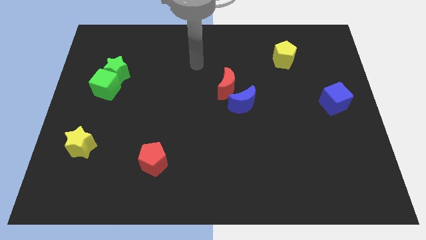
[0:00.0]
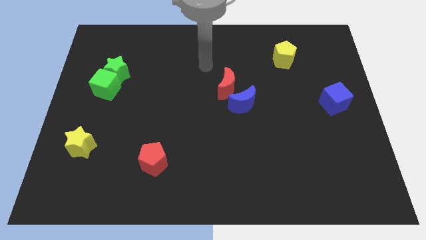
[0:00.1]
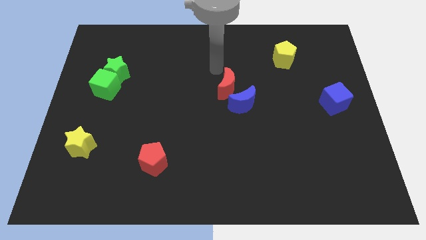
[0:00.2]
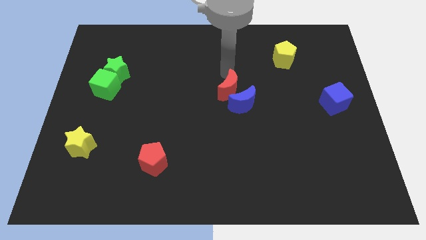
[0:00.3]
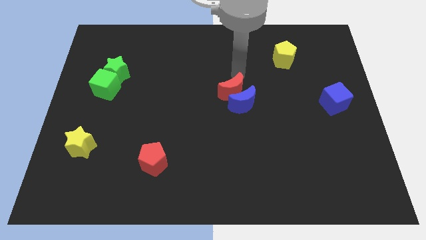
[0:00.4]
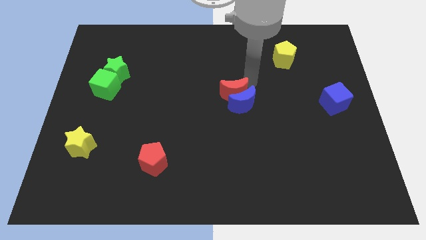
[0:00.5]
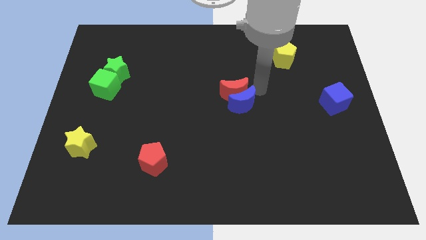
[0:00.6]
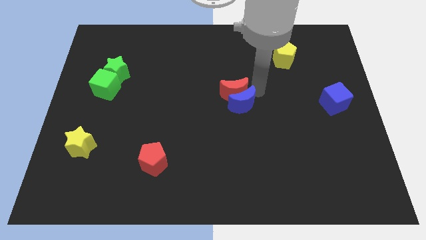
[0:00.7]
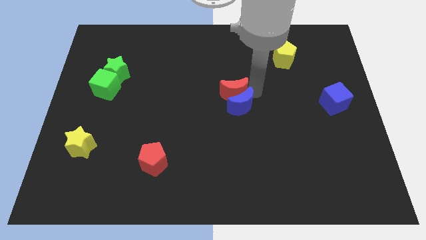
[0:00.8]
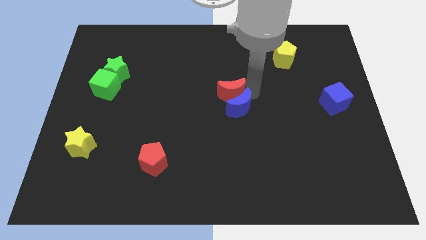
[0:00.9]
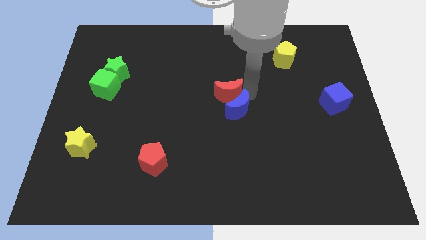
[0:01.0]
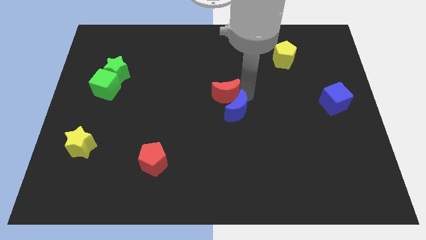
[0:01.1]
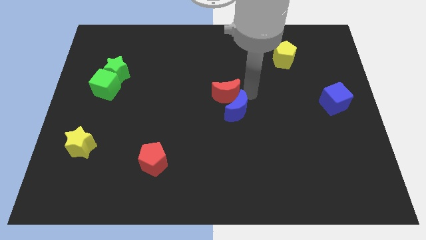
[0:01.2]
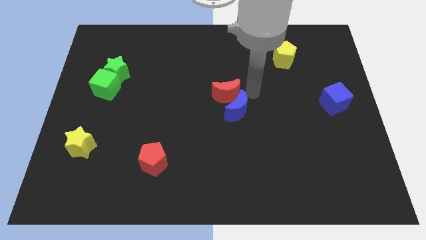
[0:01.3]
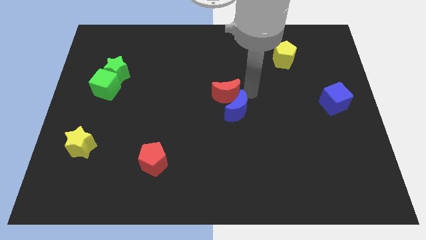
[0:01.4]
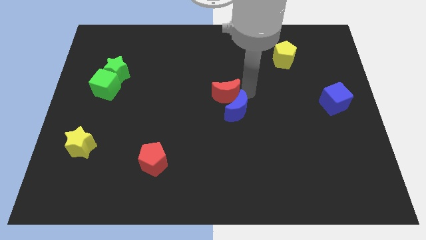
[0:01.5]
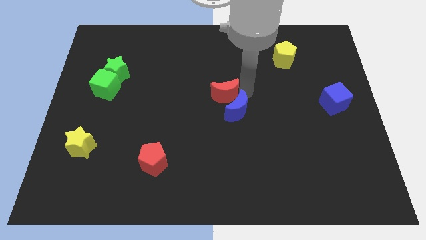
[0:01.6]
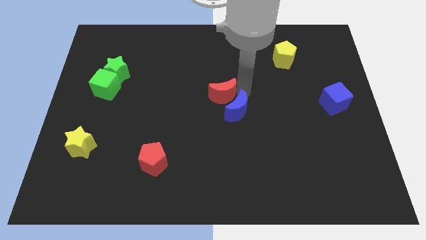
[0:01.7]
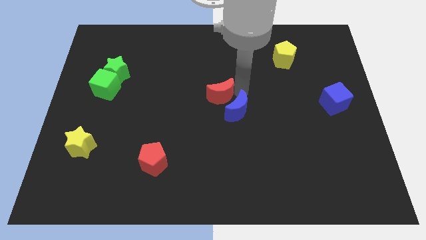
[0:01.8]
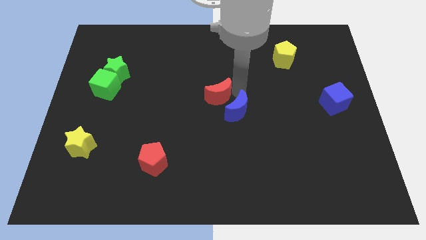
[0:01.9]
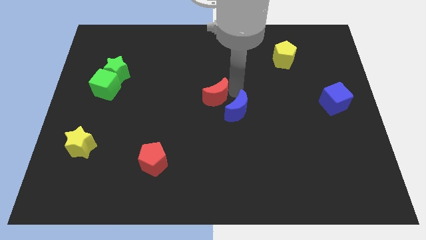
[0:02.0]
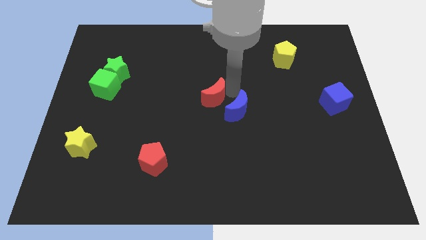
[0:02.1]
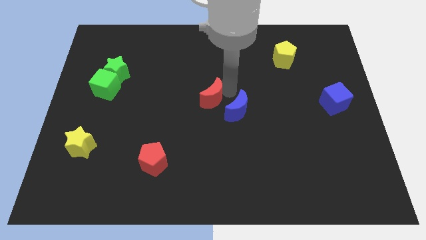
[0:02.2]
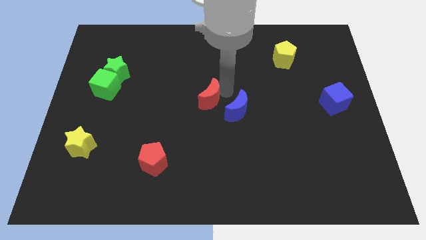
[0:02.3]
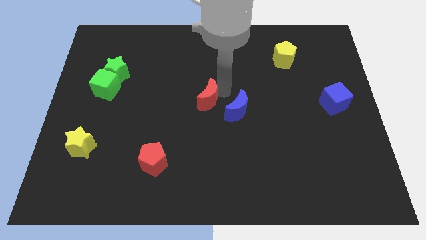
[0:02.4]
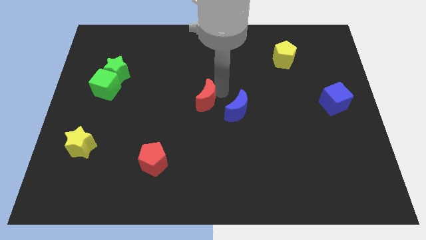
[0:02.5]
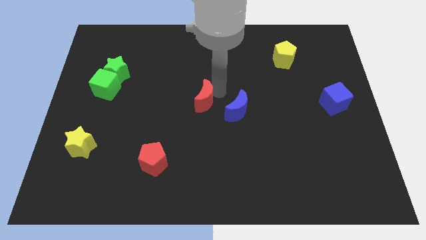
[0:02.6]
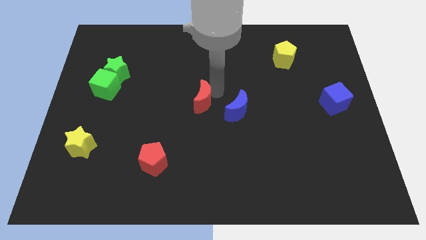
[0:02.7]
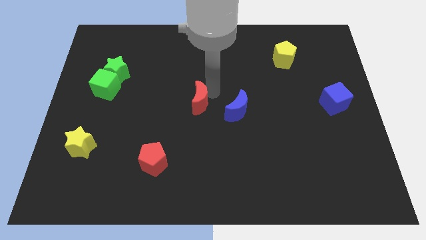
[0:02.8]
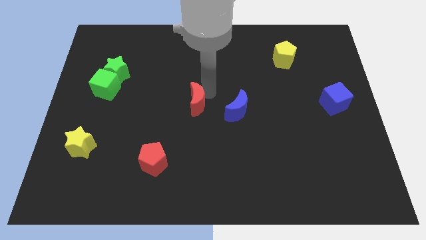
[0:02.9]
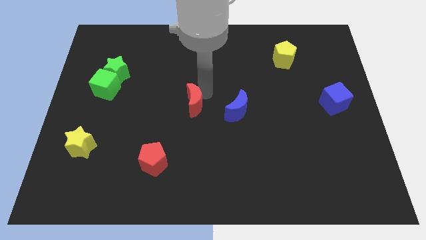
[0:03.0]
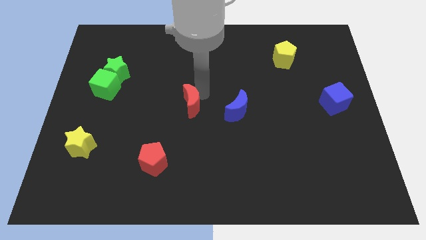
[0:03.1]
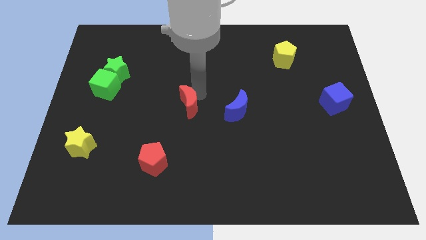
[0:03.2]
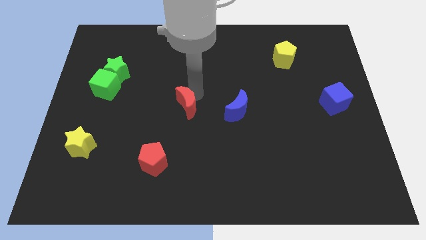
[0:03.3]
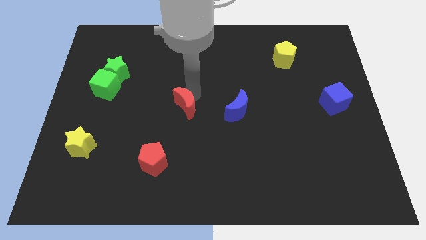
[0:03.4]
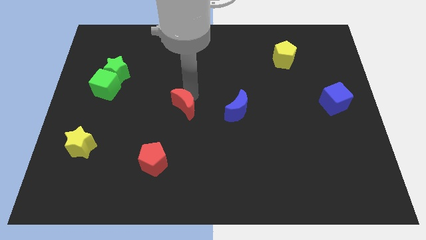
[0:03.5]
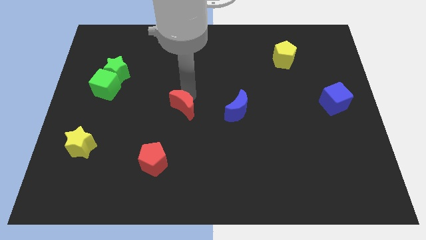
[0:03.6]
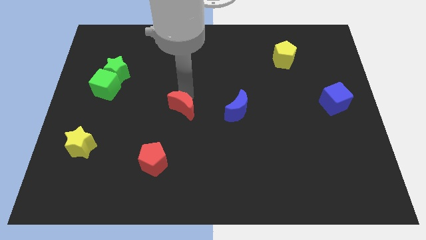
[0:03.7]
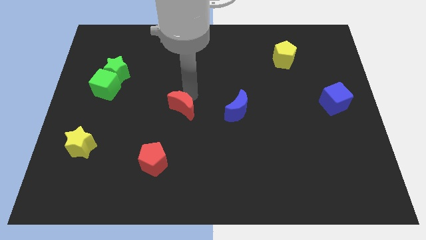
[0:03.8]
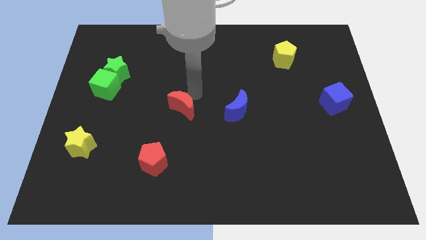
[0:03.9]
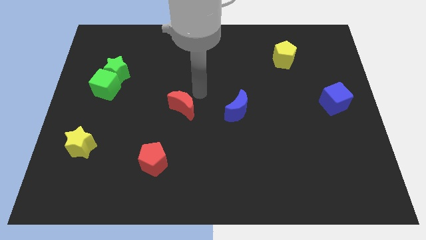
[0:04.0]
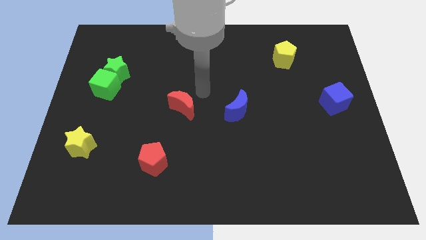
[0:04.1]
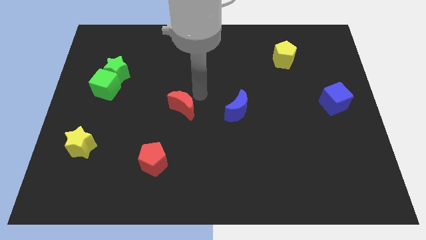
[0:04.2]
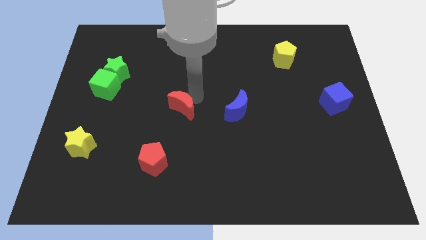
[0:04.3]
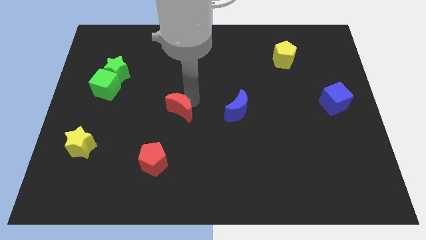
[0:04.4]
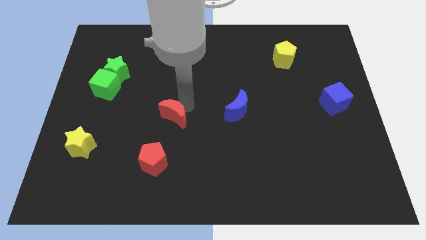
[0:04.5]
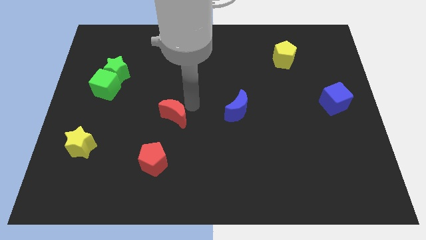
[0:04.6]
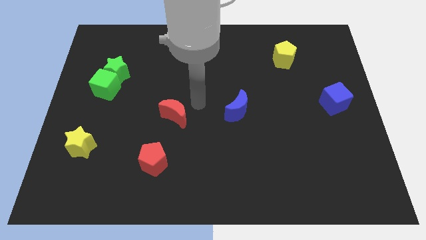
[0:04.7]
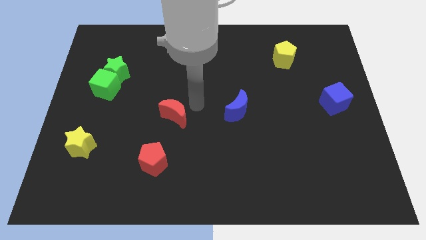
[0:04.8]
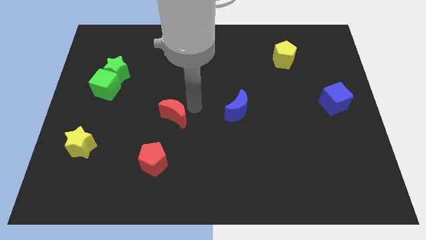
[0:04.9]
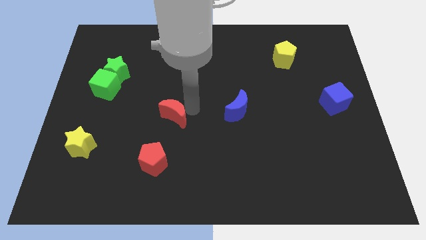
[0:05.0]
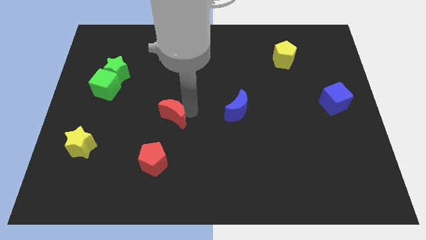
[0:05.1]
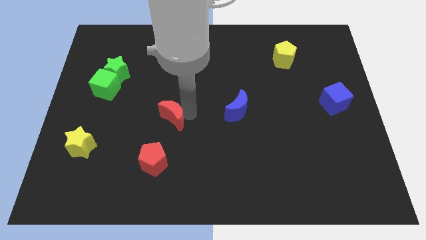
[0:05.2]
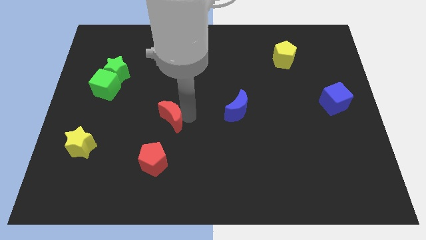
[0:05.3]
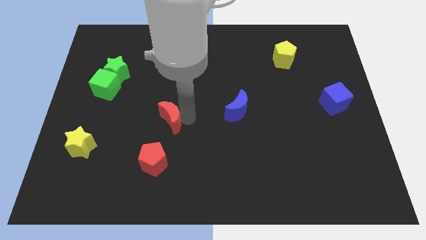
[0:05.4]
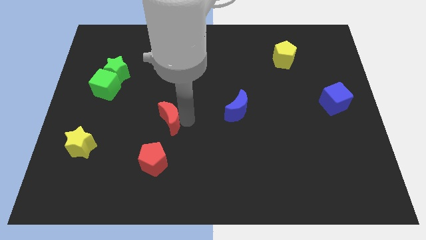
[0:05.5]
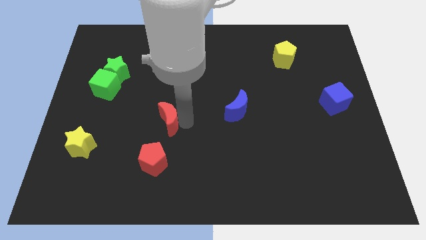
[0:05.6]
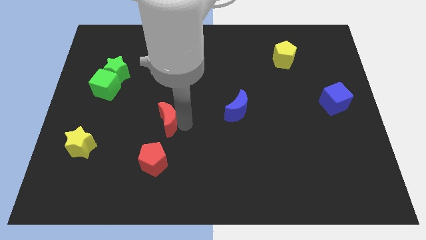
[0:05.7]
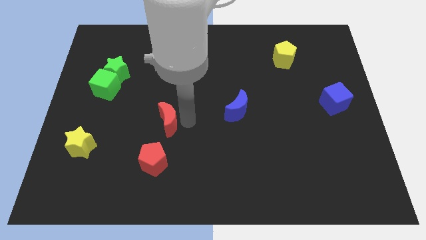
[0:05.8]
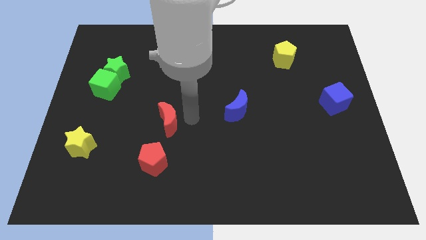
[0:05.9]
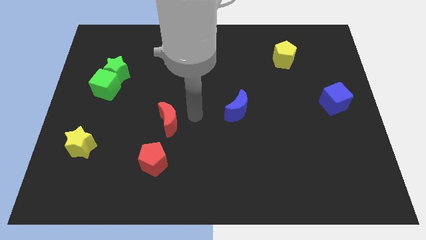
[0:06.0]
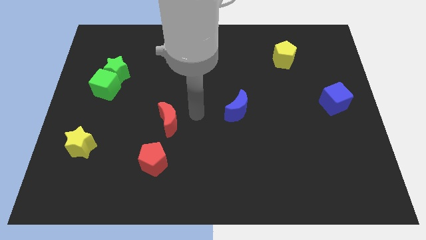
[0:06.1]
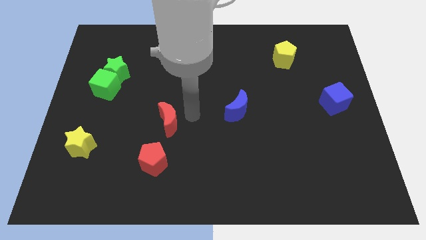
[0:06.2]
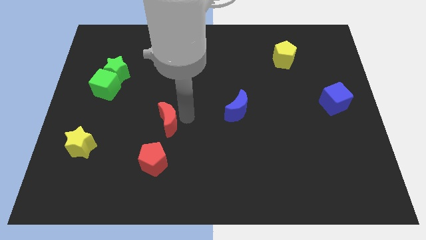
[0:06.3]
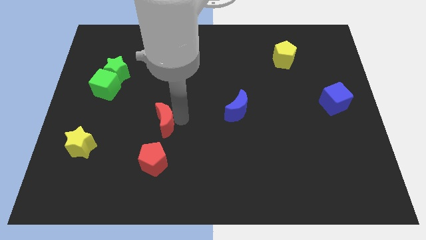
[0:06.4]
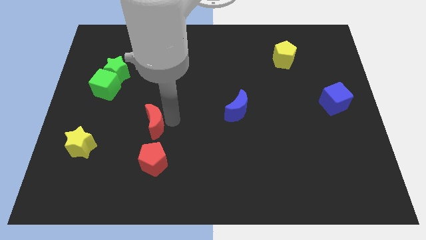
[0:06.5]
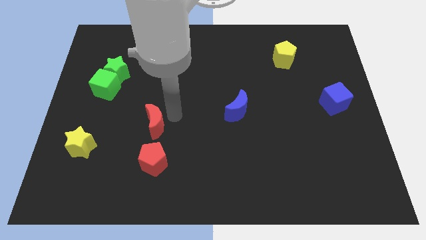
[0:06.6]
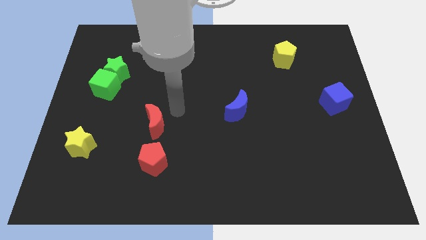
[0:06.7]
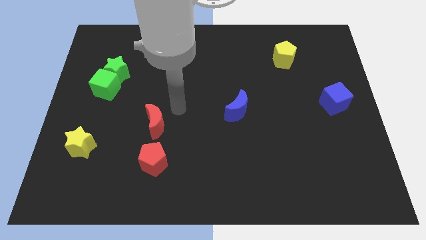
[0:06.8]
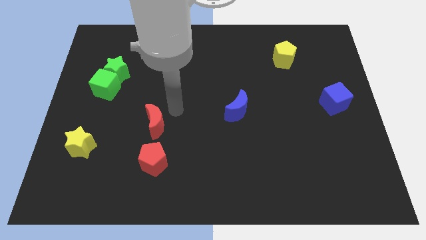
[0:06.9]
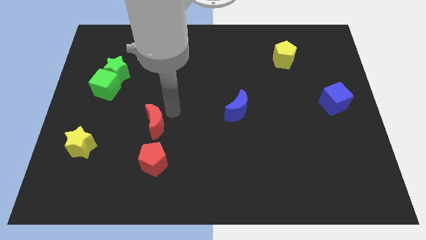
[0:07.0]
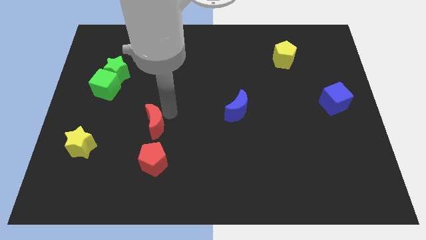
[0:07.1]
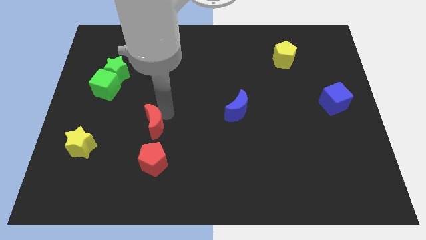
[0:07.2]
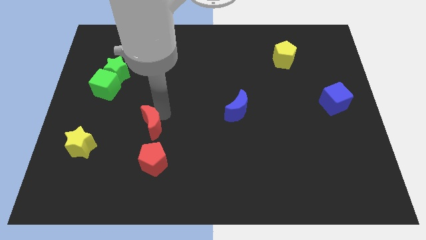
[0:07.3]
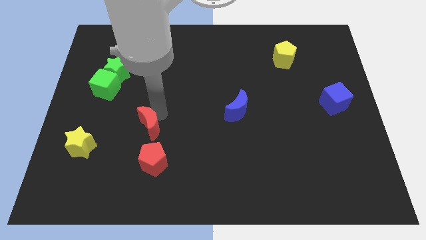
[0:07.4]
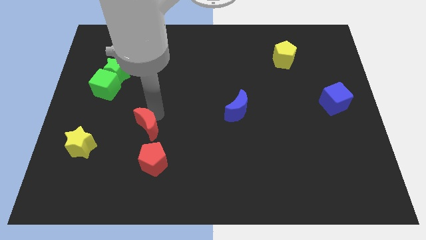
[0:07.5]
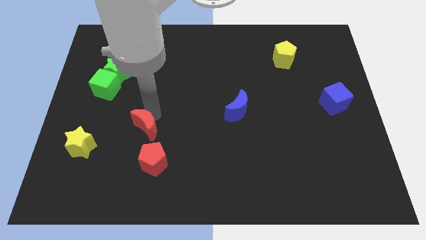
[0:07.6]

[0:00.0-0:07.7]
slide the red moon to the top left side of the red pentagon
